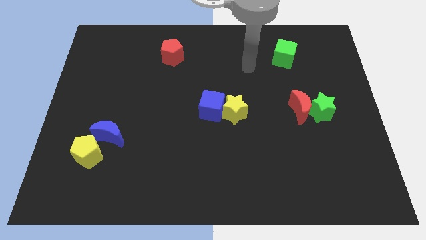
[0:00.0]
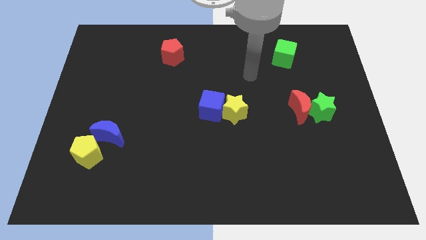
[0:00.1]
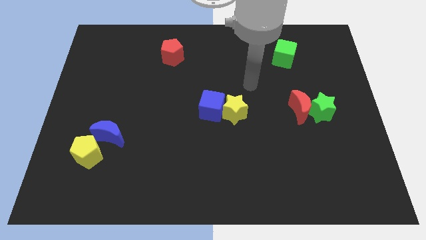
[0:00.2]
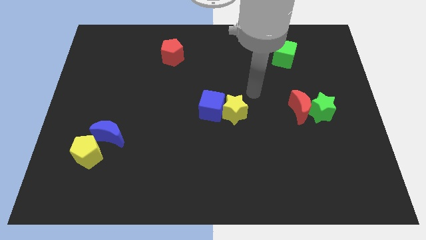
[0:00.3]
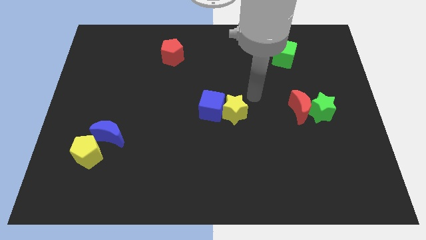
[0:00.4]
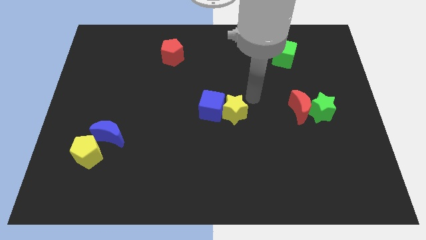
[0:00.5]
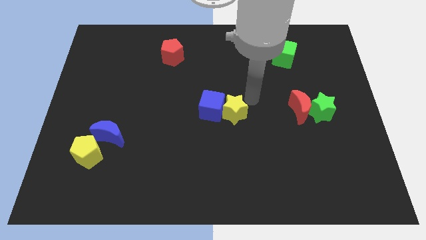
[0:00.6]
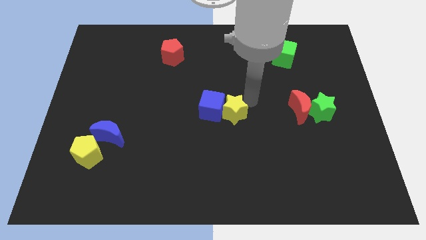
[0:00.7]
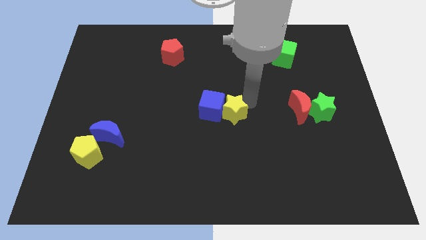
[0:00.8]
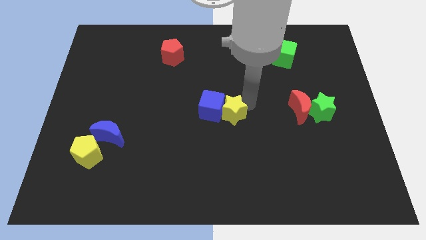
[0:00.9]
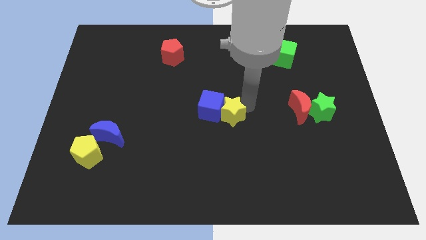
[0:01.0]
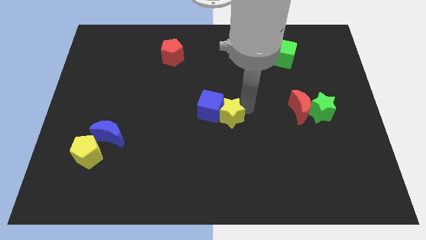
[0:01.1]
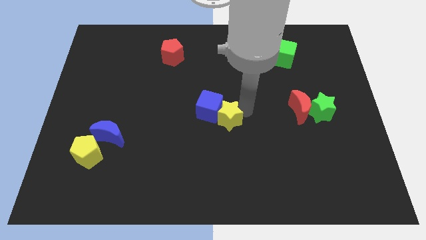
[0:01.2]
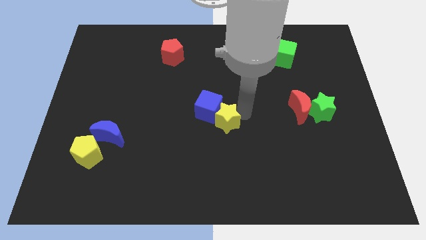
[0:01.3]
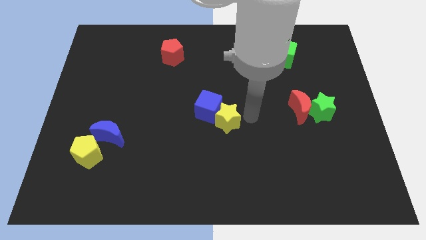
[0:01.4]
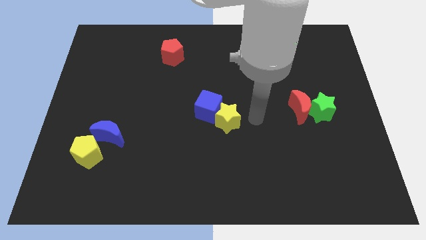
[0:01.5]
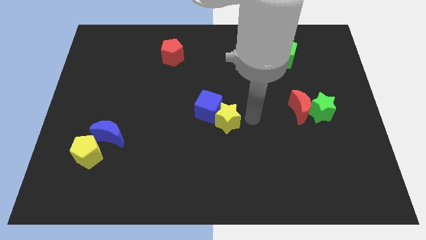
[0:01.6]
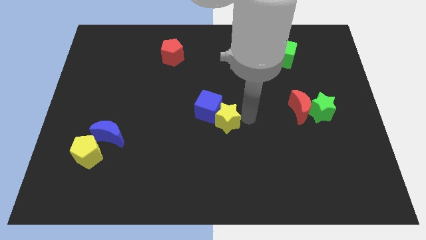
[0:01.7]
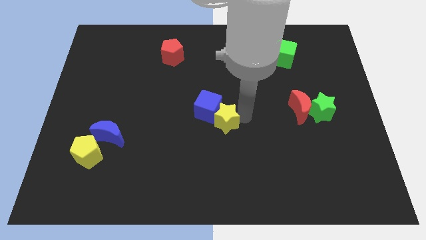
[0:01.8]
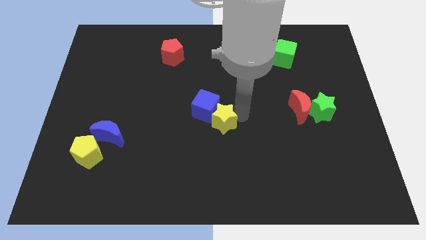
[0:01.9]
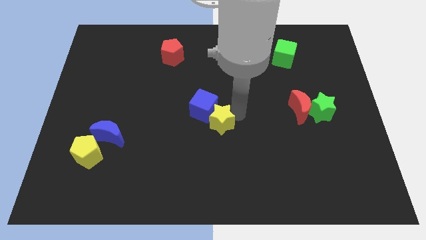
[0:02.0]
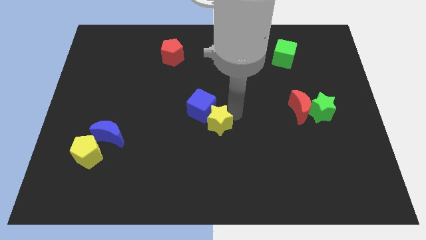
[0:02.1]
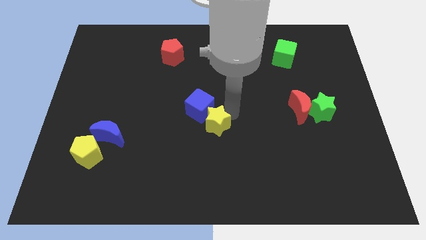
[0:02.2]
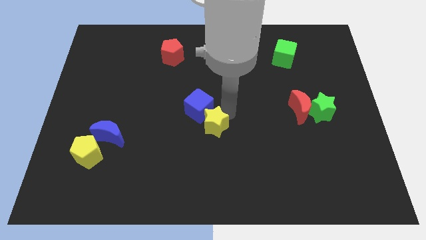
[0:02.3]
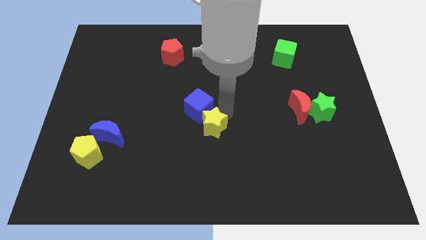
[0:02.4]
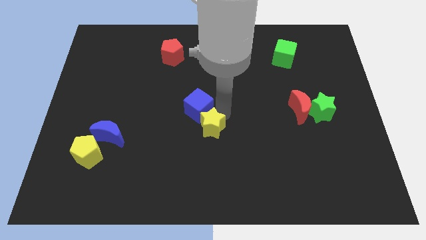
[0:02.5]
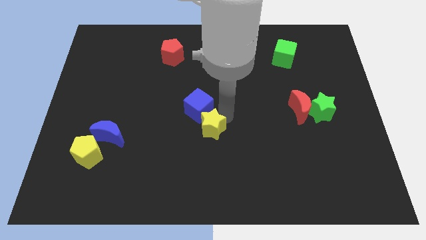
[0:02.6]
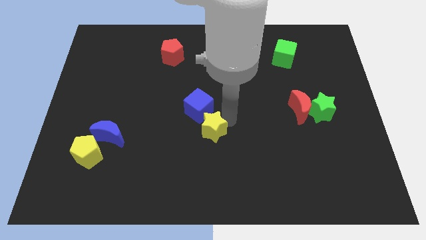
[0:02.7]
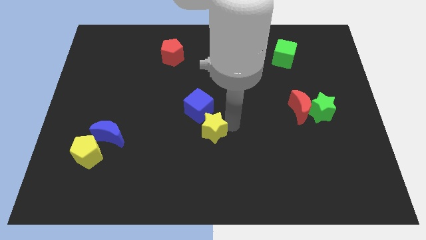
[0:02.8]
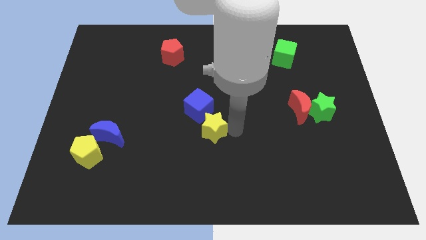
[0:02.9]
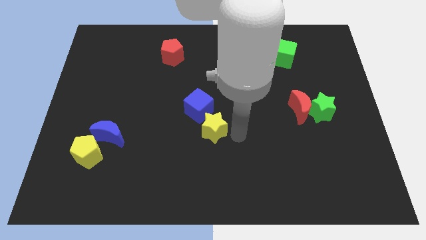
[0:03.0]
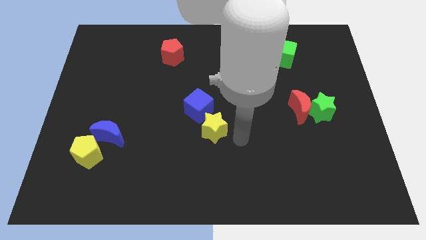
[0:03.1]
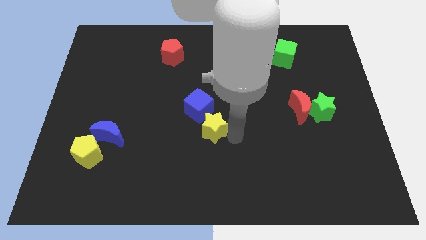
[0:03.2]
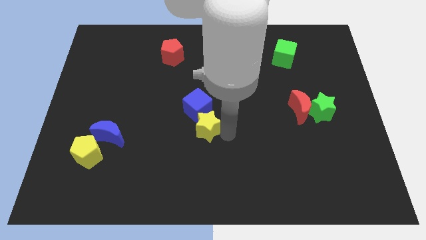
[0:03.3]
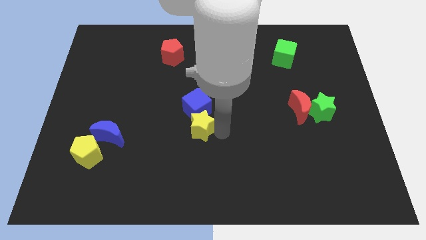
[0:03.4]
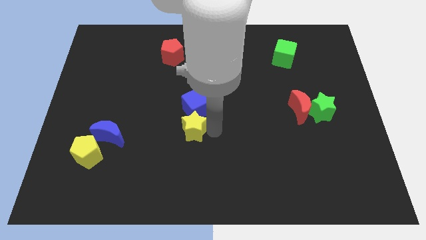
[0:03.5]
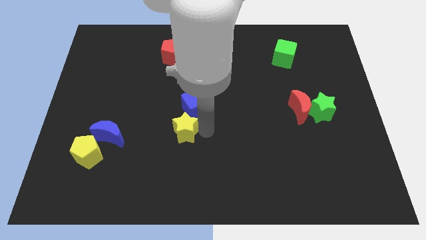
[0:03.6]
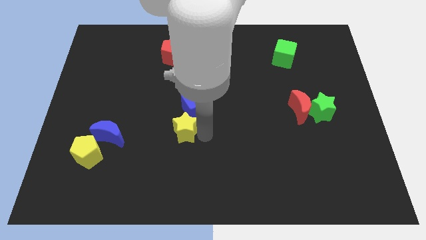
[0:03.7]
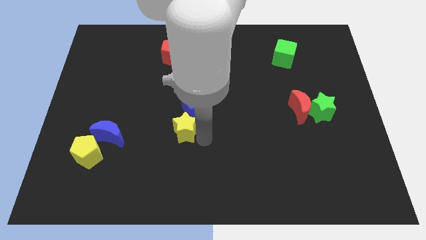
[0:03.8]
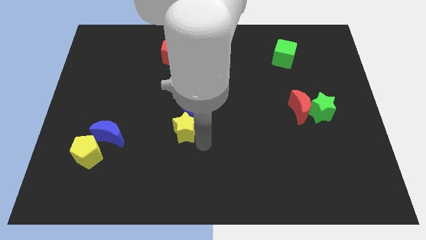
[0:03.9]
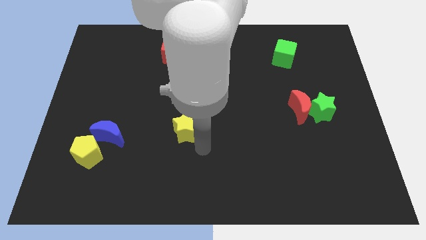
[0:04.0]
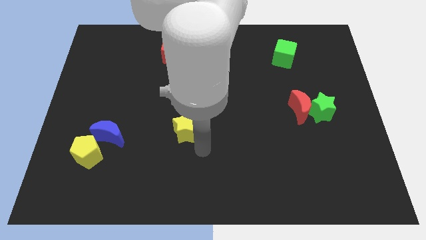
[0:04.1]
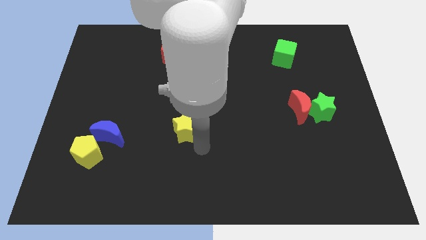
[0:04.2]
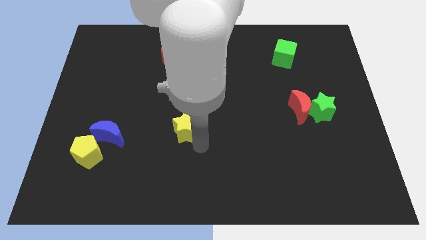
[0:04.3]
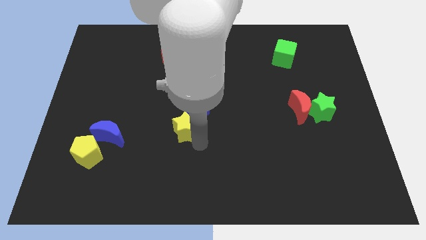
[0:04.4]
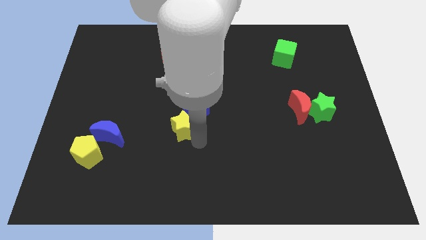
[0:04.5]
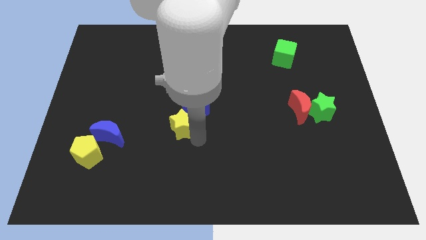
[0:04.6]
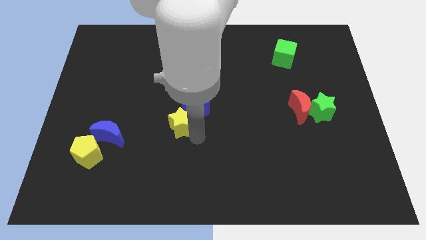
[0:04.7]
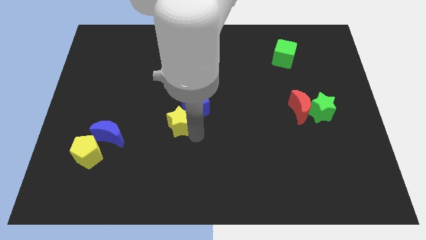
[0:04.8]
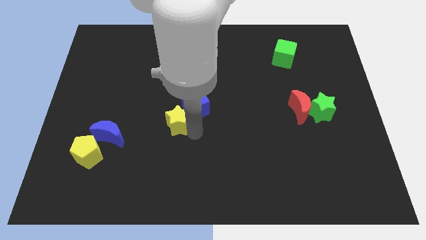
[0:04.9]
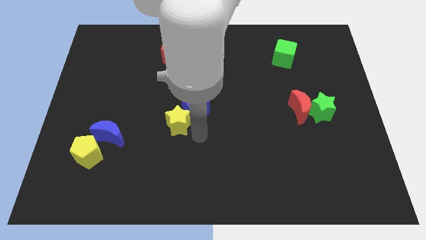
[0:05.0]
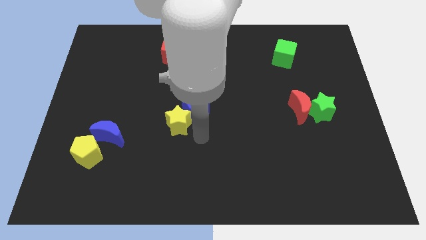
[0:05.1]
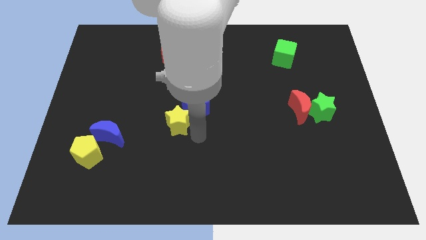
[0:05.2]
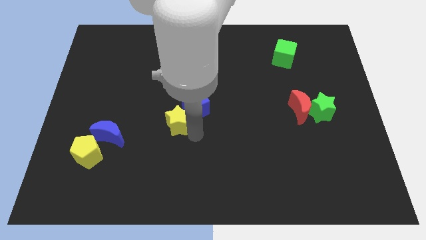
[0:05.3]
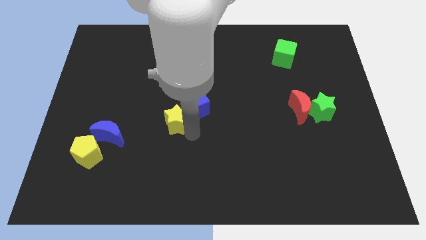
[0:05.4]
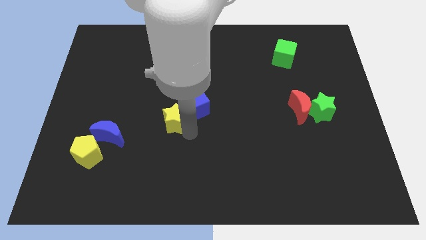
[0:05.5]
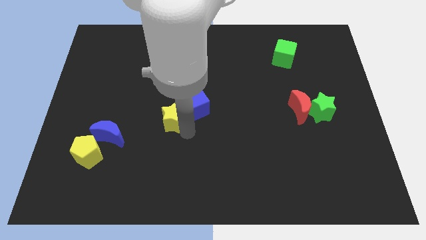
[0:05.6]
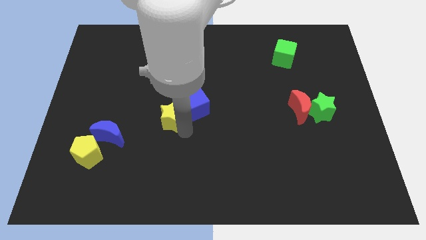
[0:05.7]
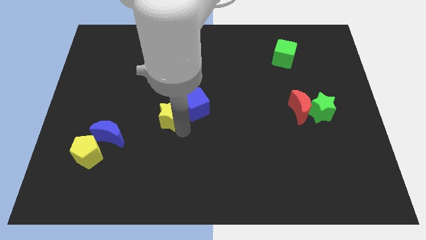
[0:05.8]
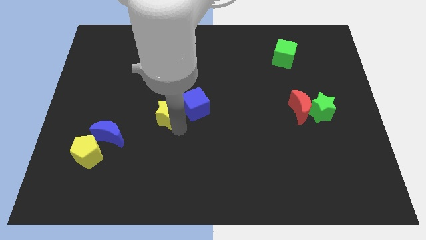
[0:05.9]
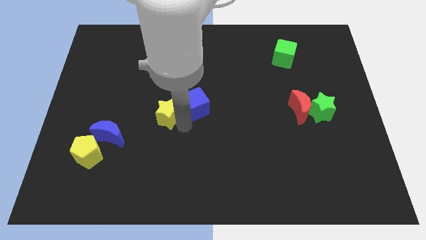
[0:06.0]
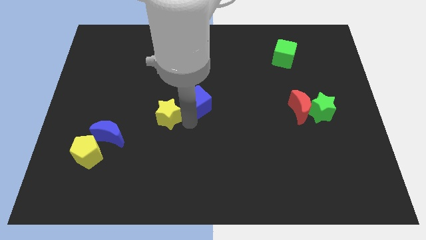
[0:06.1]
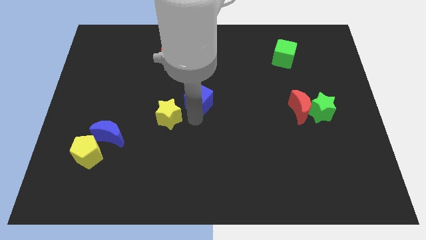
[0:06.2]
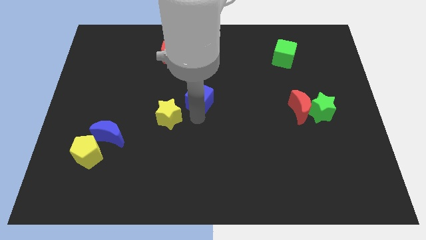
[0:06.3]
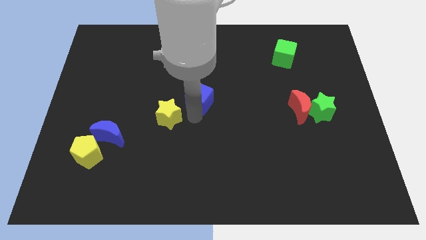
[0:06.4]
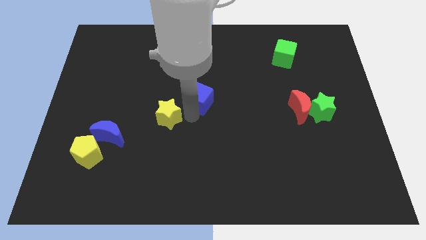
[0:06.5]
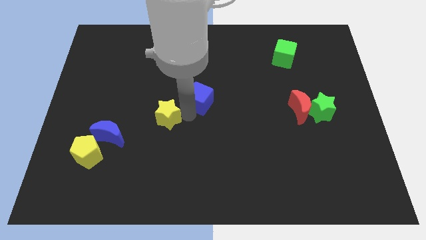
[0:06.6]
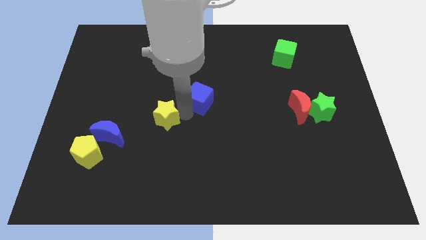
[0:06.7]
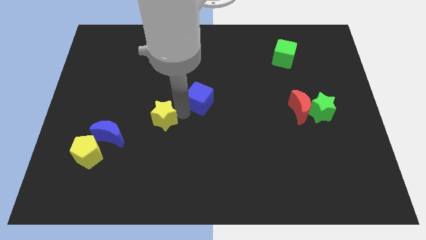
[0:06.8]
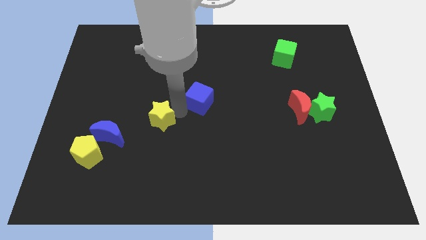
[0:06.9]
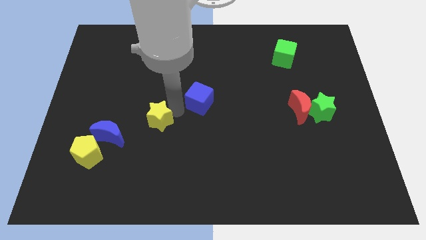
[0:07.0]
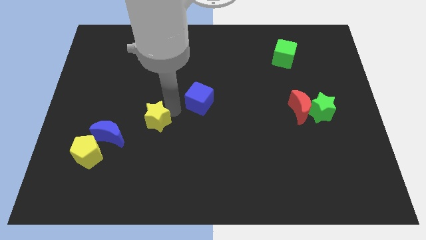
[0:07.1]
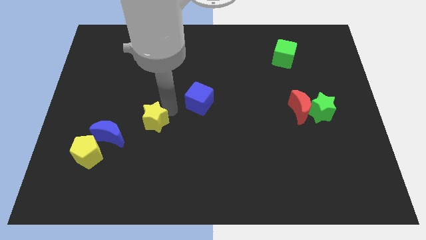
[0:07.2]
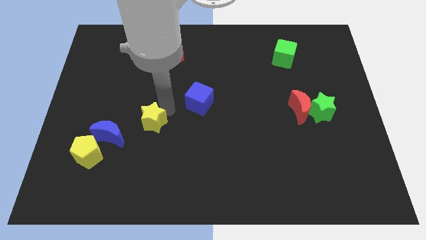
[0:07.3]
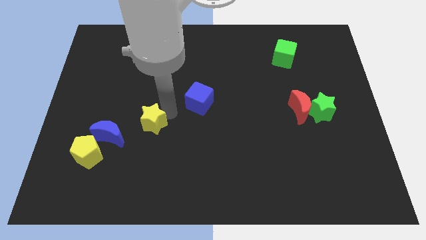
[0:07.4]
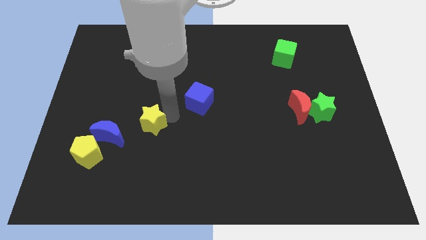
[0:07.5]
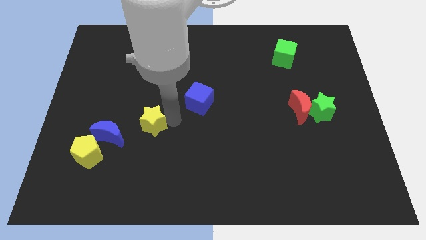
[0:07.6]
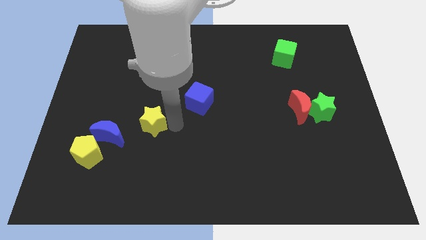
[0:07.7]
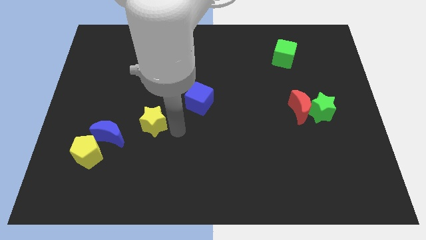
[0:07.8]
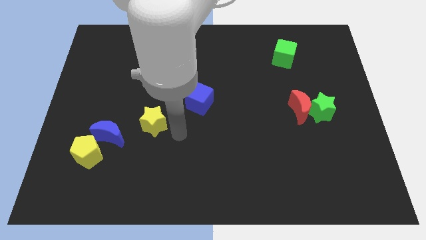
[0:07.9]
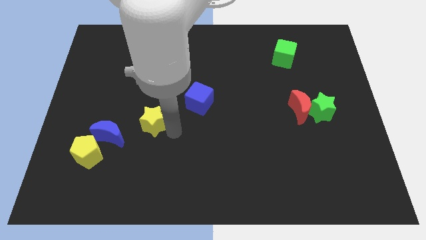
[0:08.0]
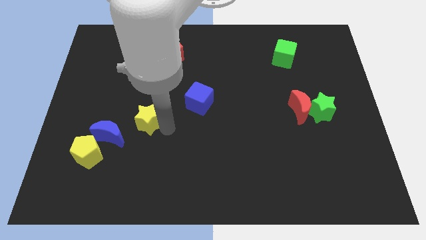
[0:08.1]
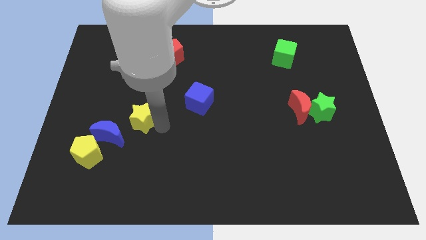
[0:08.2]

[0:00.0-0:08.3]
push the yellow star left

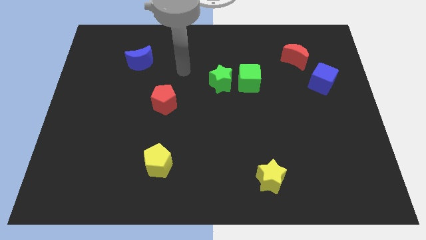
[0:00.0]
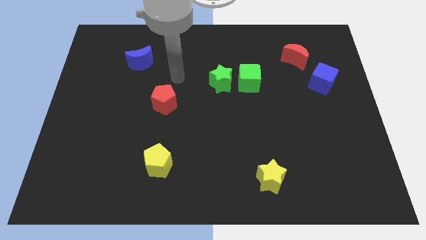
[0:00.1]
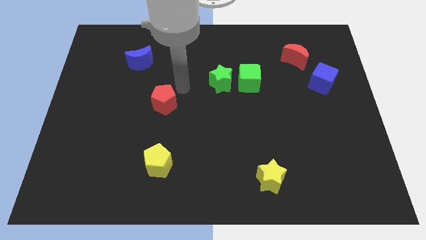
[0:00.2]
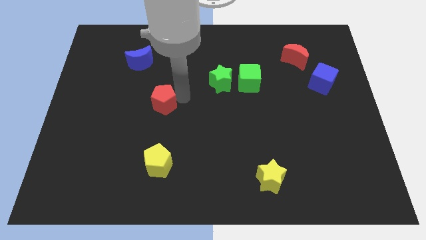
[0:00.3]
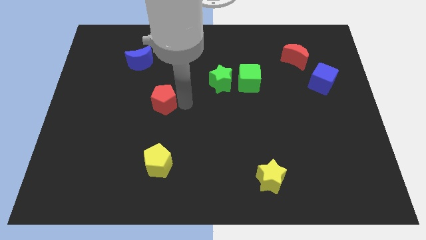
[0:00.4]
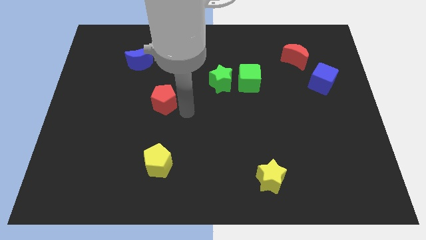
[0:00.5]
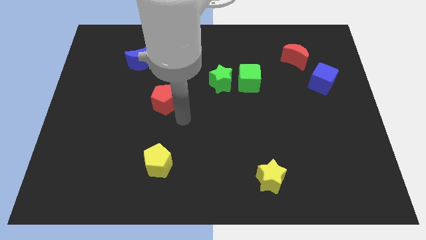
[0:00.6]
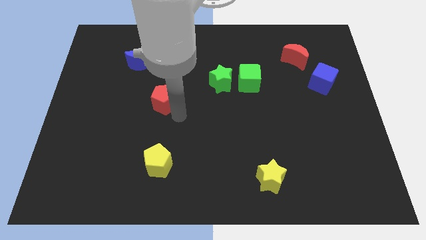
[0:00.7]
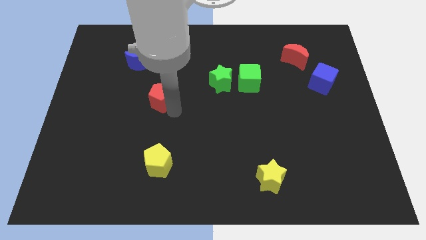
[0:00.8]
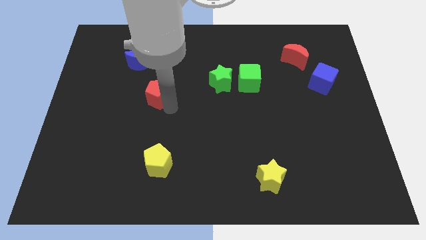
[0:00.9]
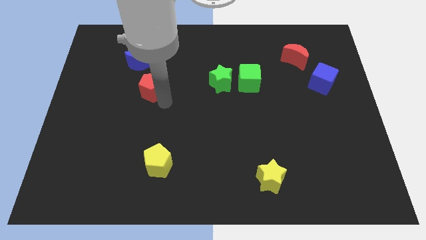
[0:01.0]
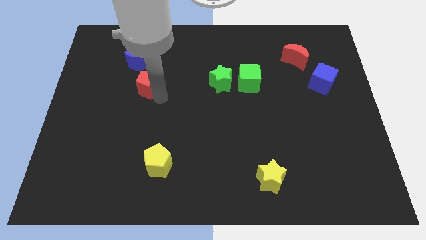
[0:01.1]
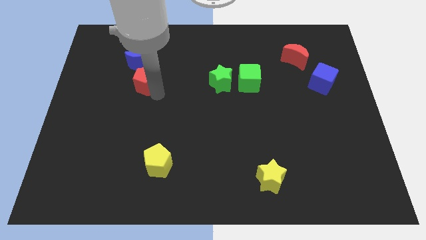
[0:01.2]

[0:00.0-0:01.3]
move the red pentagon upwards and then left a bit
